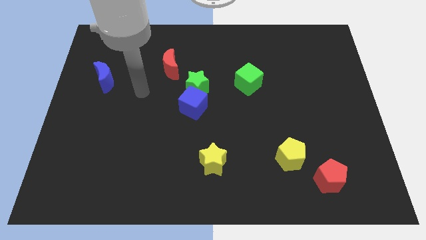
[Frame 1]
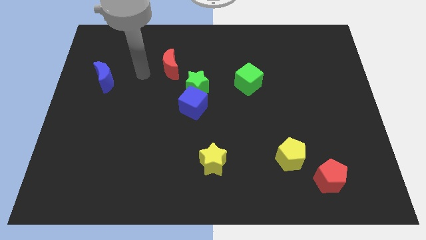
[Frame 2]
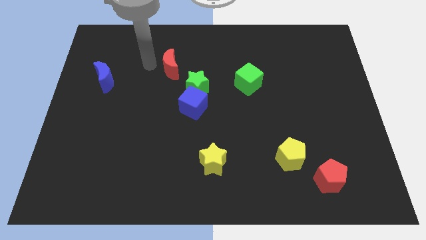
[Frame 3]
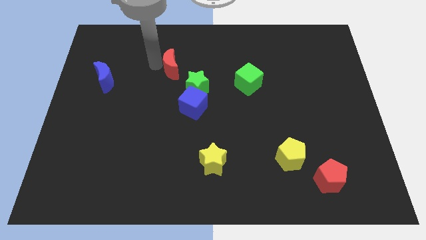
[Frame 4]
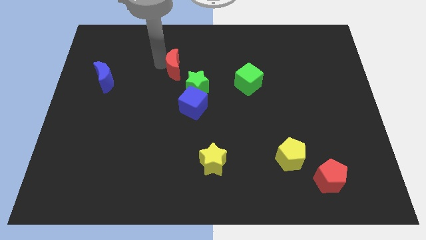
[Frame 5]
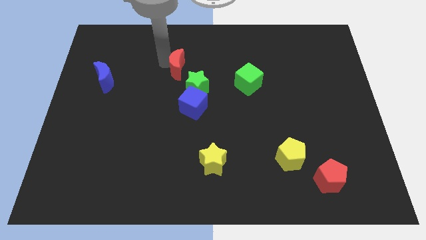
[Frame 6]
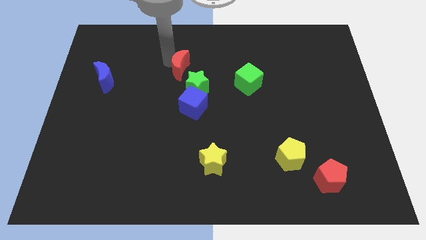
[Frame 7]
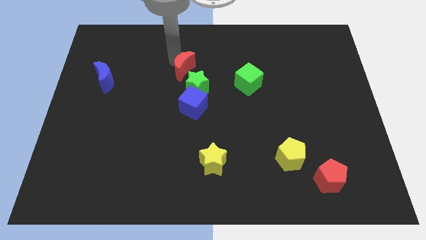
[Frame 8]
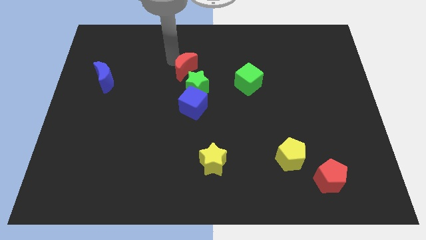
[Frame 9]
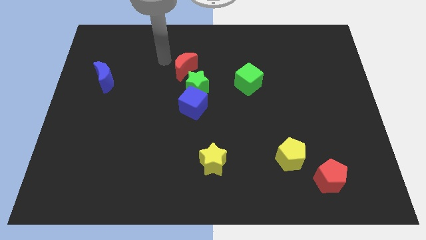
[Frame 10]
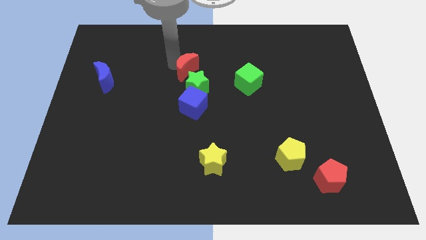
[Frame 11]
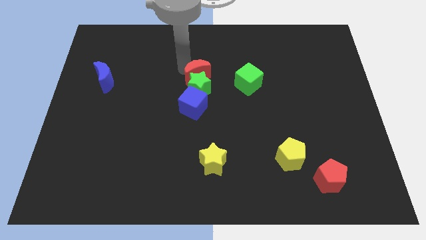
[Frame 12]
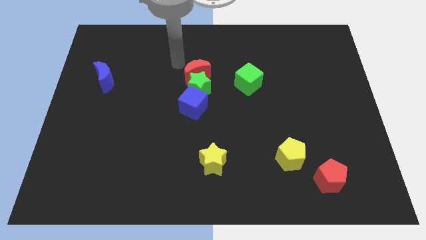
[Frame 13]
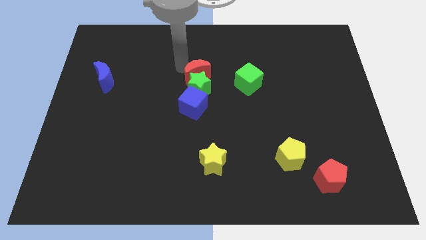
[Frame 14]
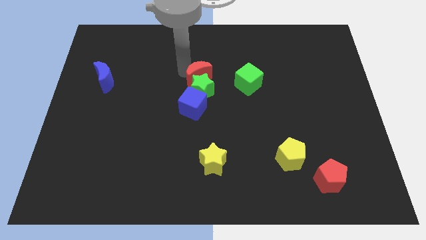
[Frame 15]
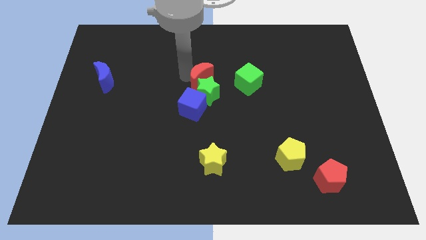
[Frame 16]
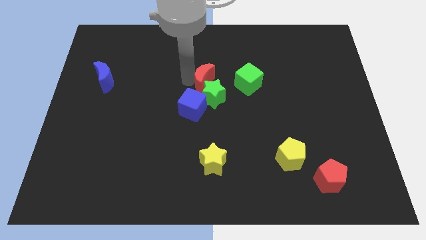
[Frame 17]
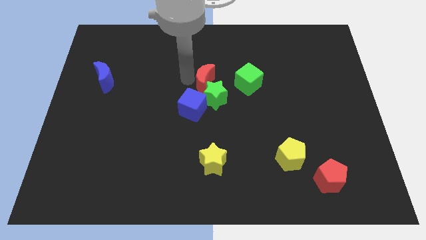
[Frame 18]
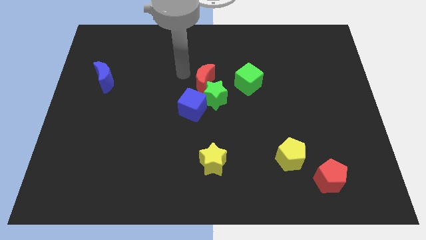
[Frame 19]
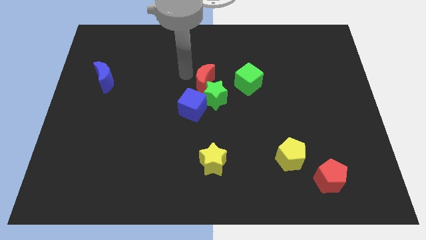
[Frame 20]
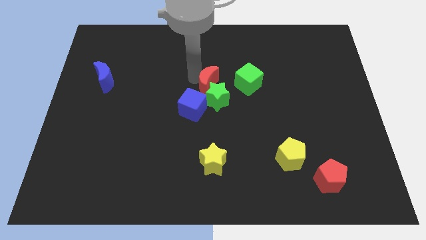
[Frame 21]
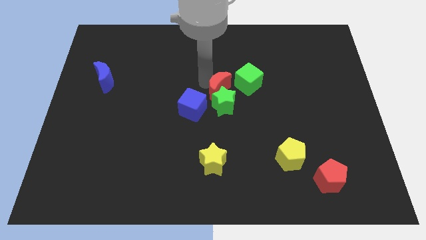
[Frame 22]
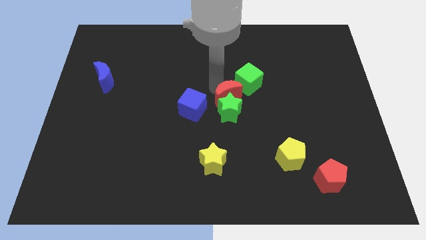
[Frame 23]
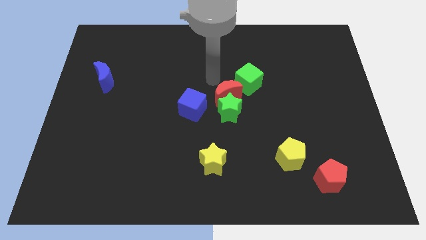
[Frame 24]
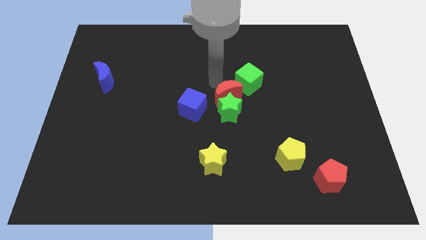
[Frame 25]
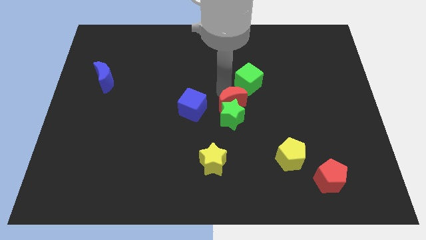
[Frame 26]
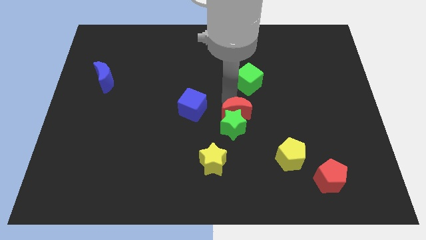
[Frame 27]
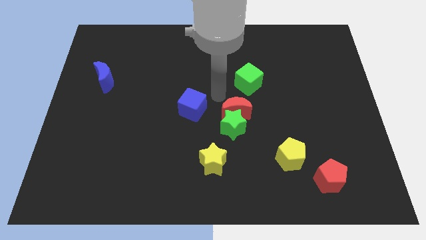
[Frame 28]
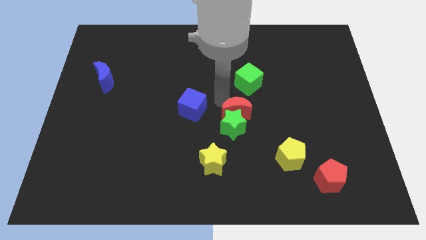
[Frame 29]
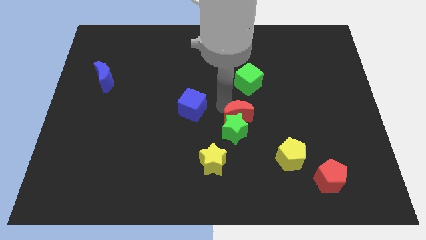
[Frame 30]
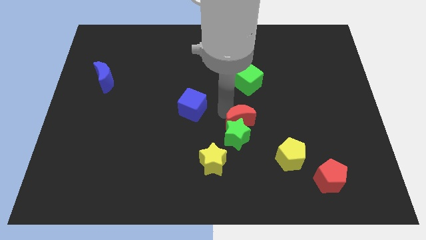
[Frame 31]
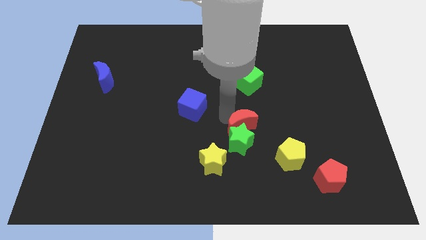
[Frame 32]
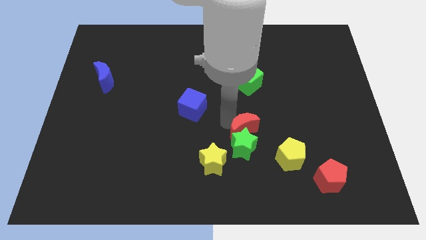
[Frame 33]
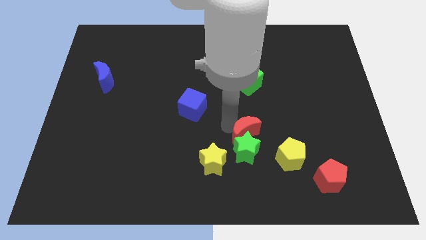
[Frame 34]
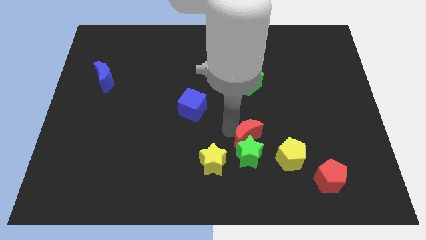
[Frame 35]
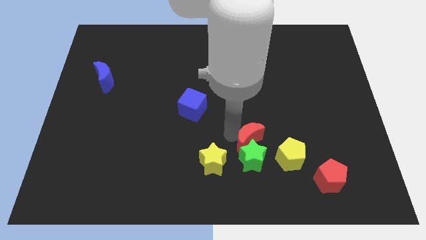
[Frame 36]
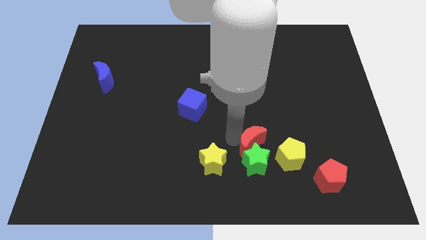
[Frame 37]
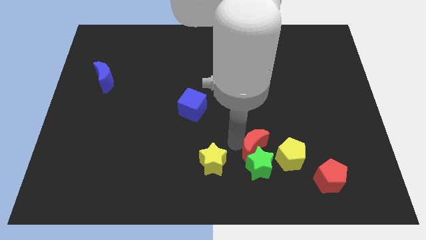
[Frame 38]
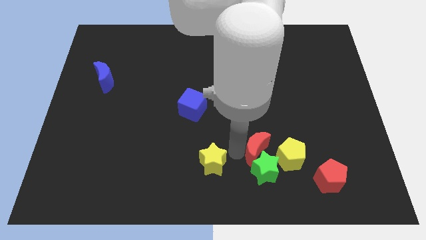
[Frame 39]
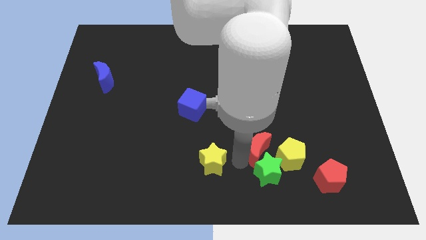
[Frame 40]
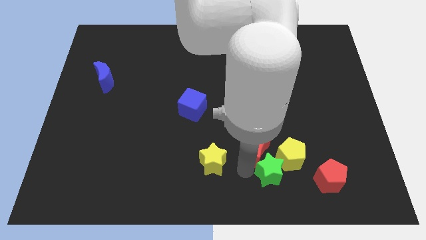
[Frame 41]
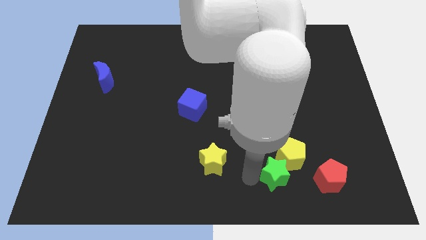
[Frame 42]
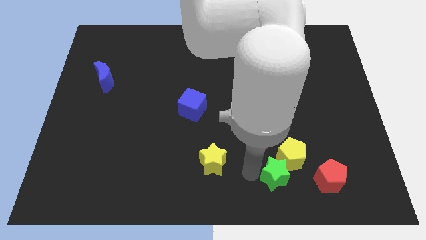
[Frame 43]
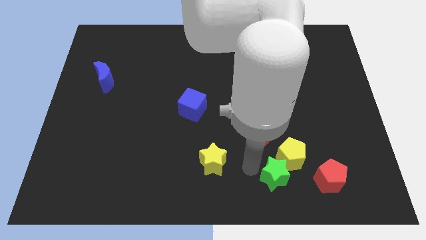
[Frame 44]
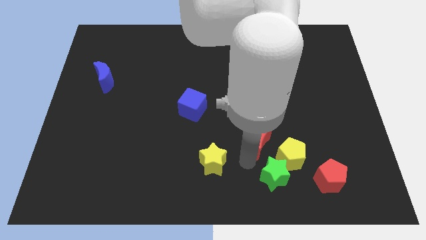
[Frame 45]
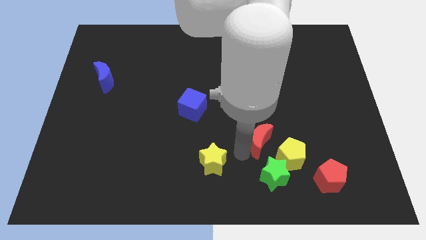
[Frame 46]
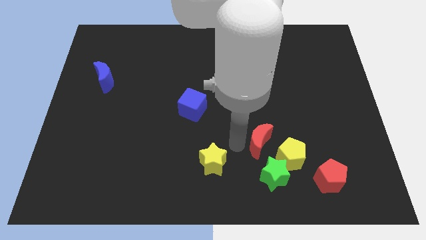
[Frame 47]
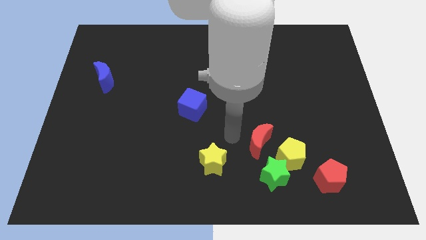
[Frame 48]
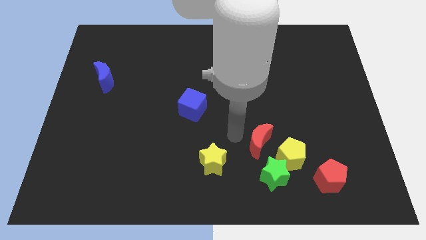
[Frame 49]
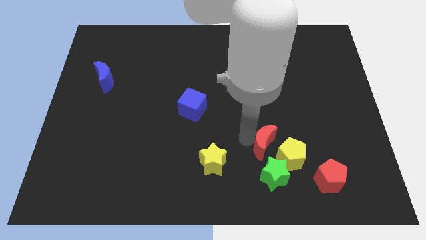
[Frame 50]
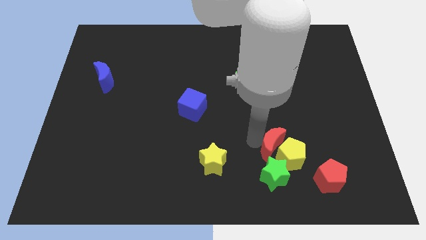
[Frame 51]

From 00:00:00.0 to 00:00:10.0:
slide the red moon close to the yellow pentagon

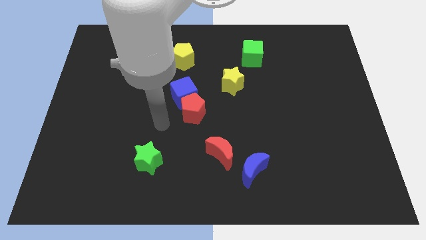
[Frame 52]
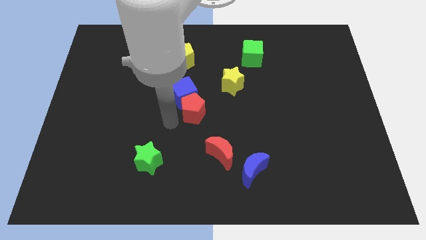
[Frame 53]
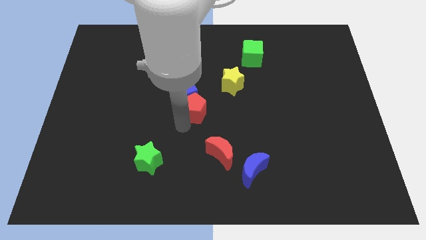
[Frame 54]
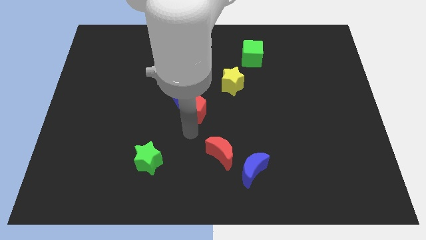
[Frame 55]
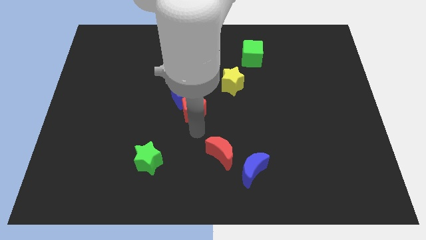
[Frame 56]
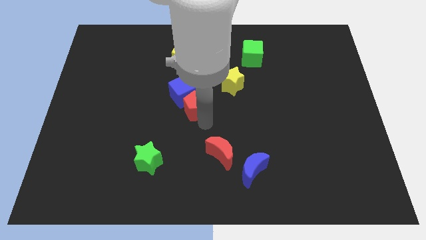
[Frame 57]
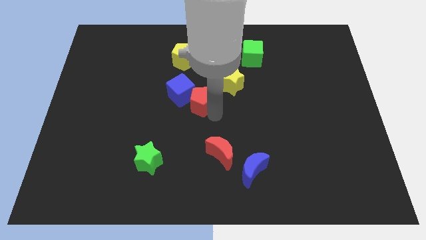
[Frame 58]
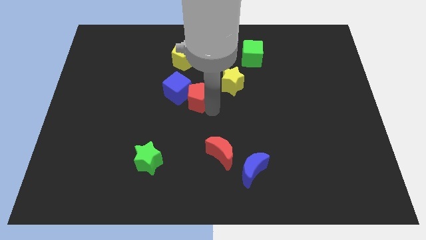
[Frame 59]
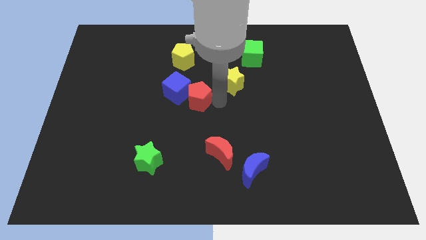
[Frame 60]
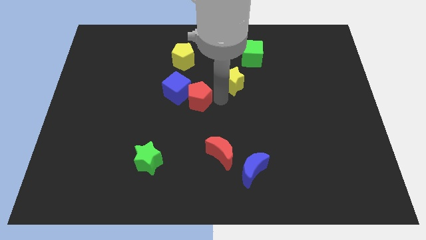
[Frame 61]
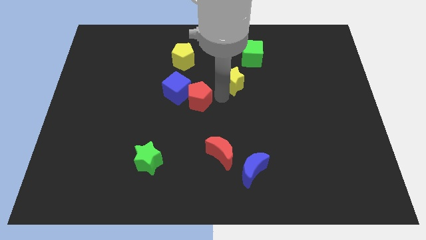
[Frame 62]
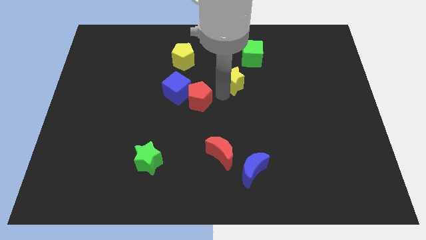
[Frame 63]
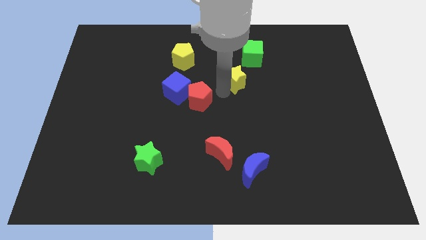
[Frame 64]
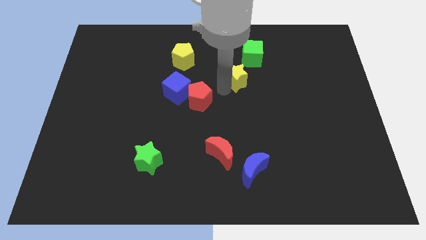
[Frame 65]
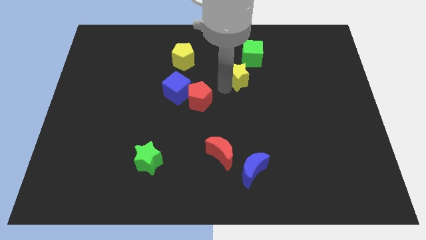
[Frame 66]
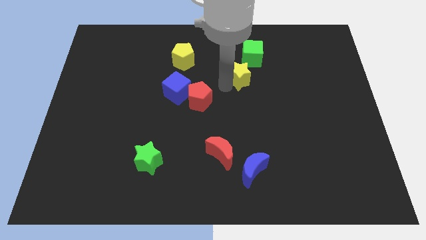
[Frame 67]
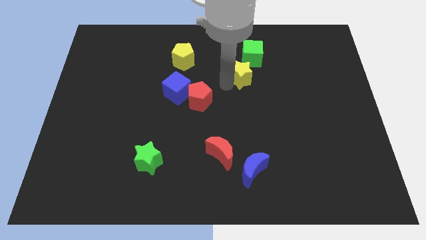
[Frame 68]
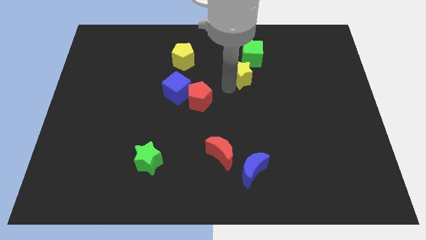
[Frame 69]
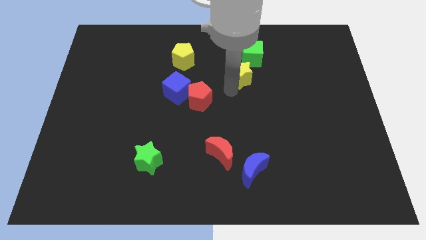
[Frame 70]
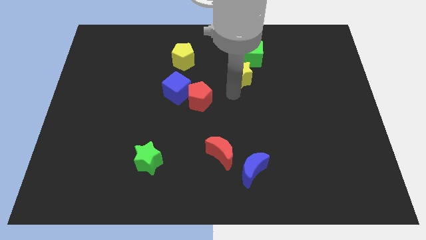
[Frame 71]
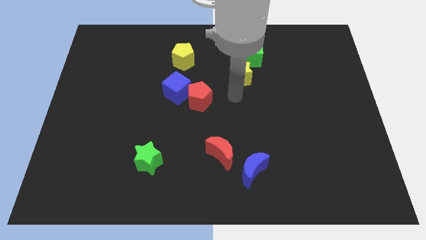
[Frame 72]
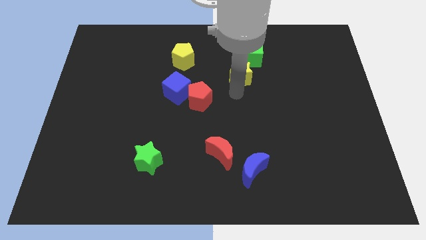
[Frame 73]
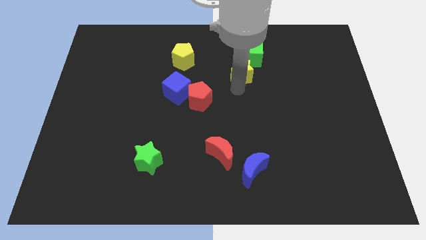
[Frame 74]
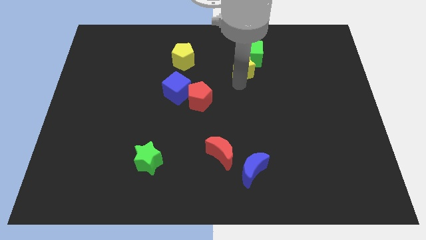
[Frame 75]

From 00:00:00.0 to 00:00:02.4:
push the yellow star next to the green cube

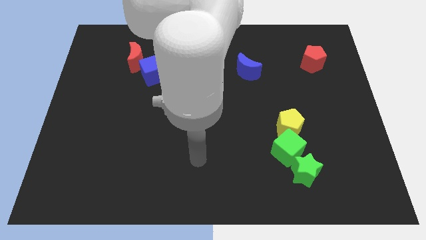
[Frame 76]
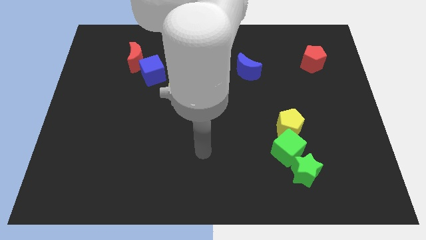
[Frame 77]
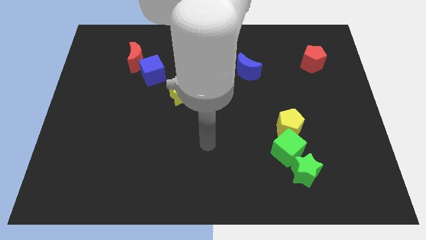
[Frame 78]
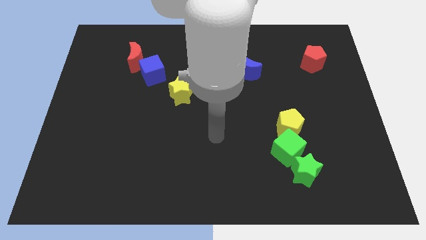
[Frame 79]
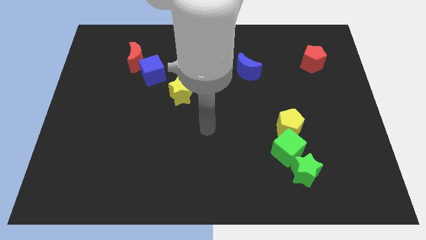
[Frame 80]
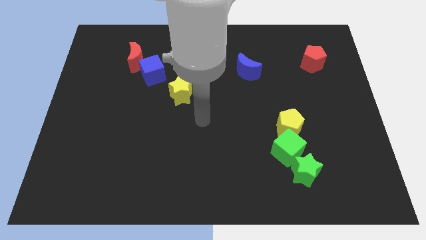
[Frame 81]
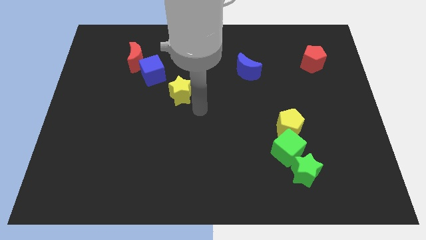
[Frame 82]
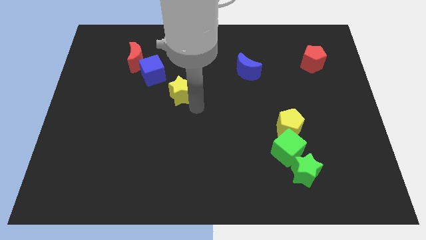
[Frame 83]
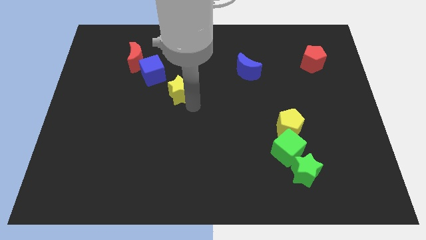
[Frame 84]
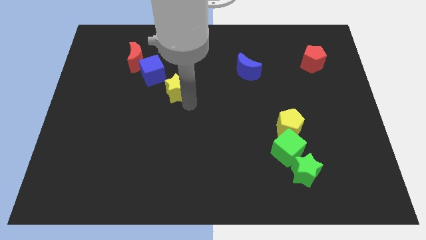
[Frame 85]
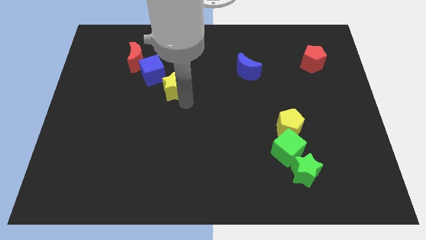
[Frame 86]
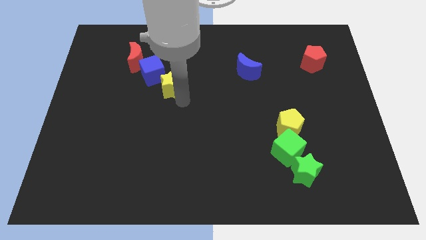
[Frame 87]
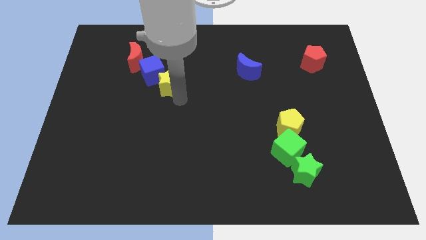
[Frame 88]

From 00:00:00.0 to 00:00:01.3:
push the yellow star next to the blue cube
